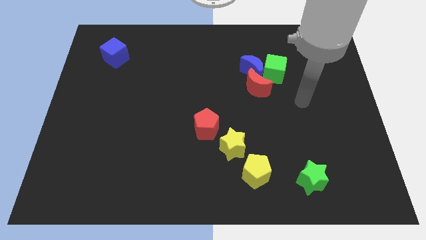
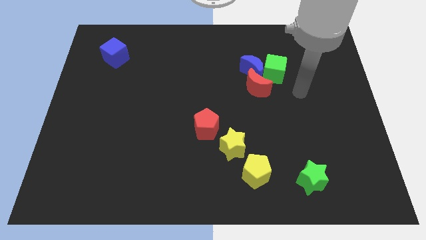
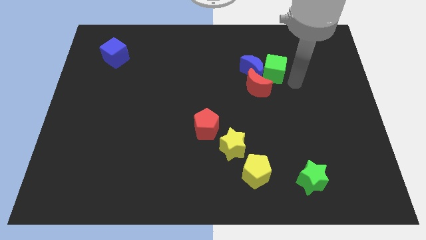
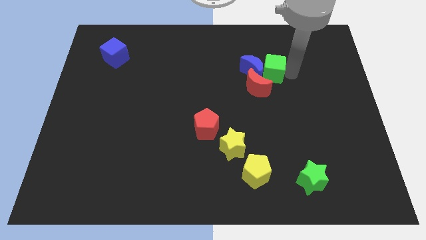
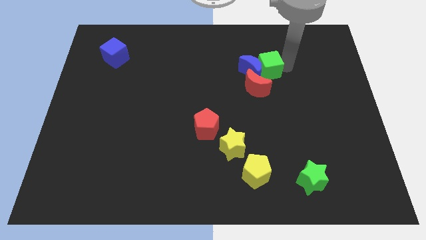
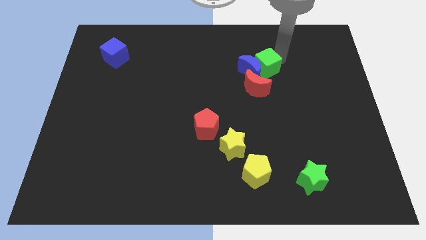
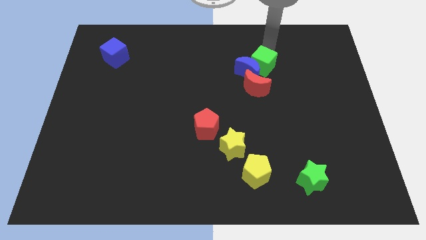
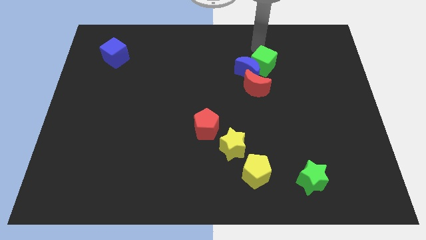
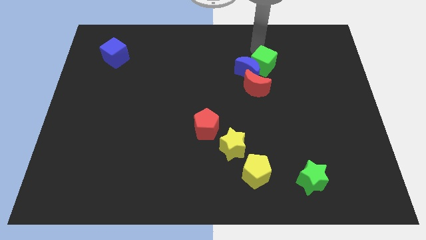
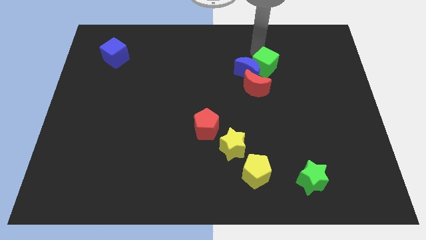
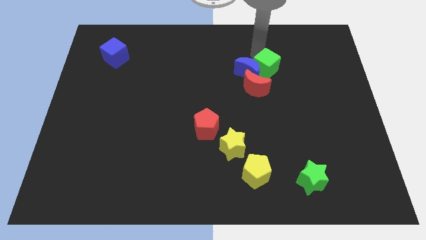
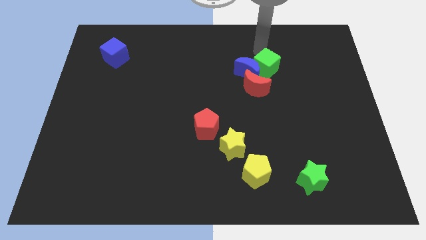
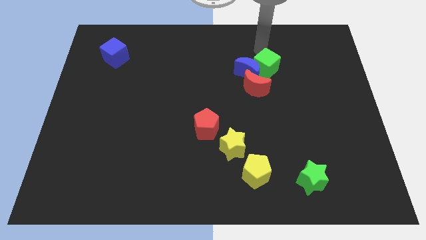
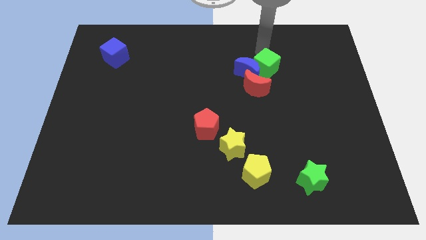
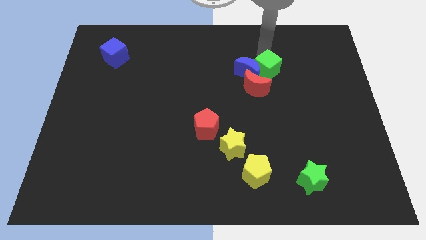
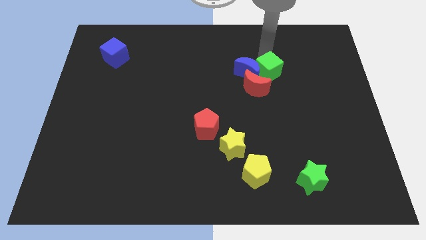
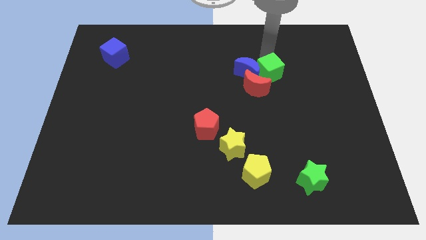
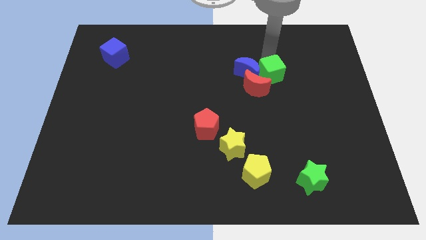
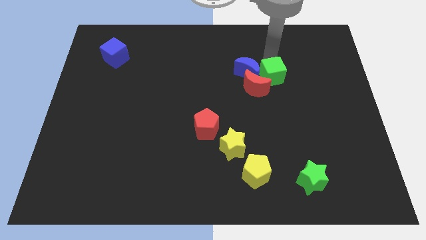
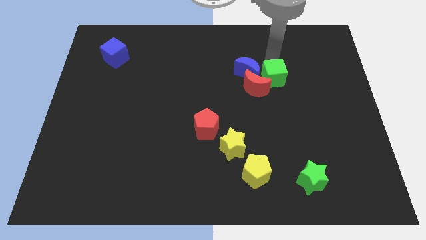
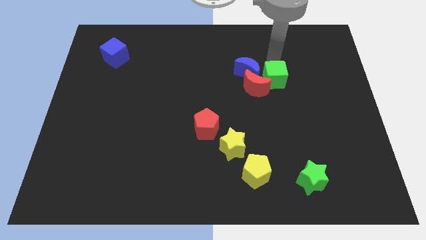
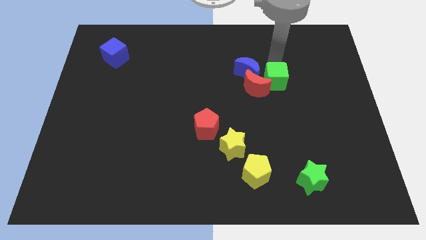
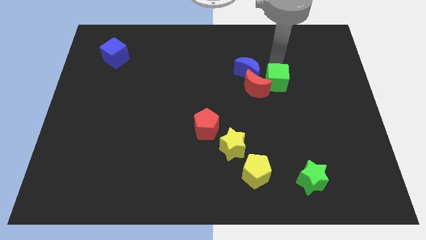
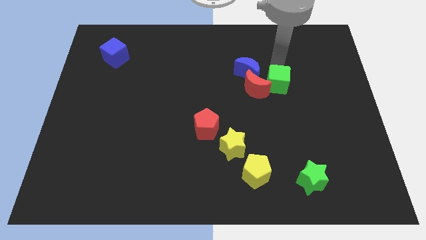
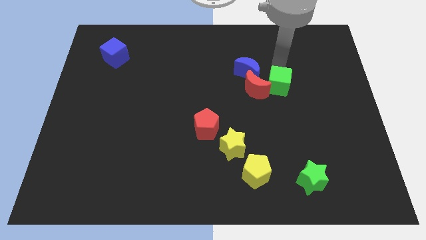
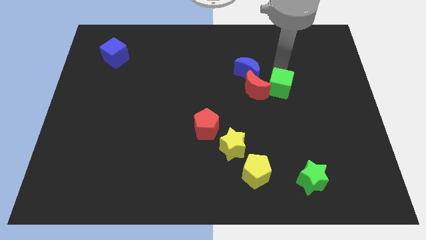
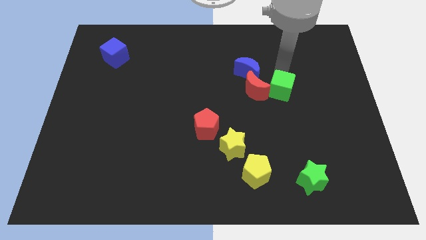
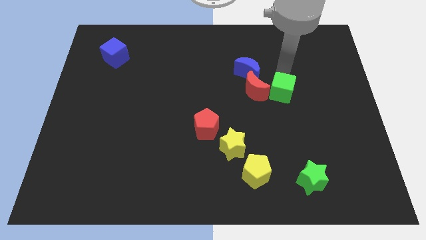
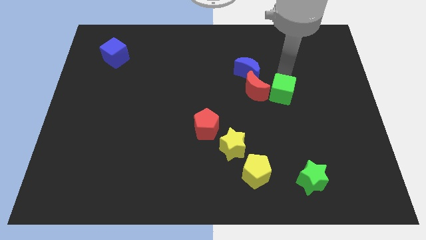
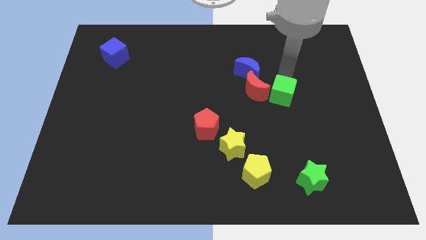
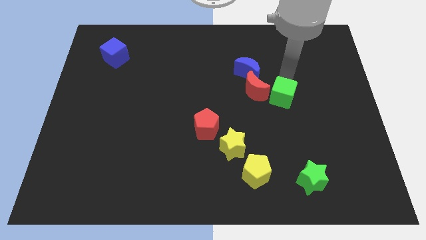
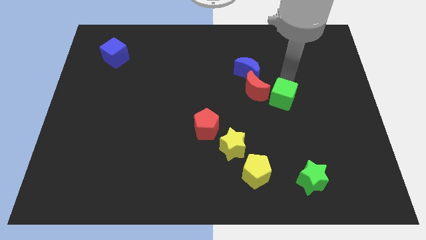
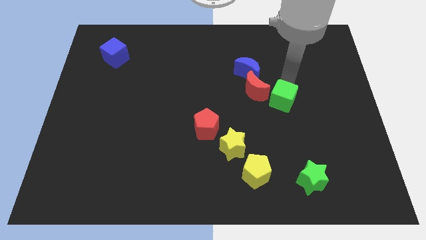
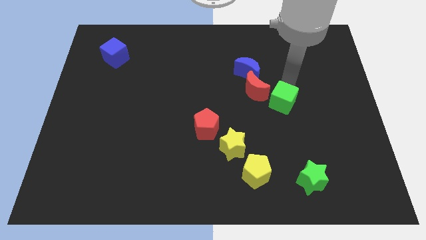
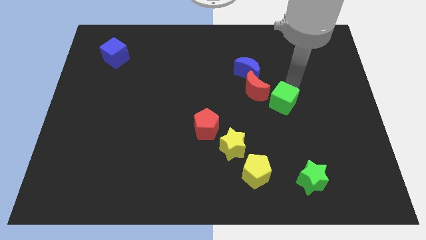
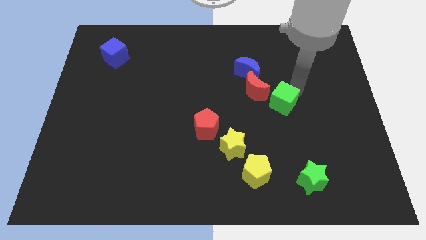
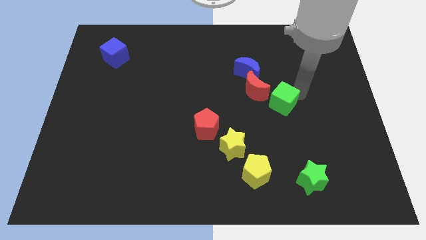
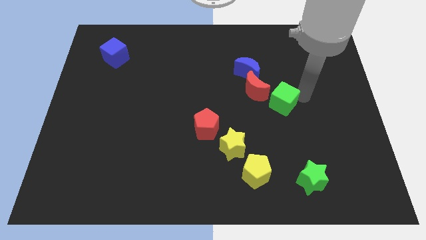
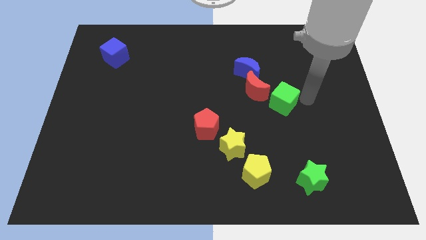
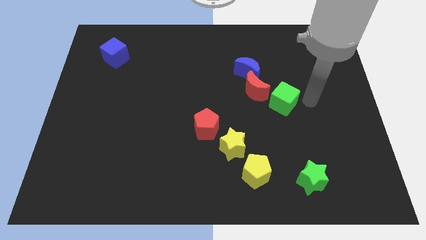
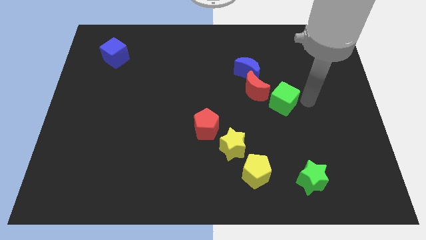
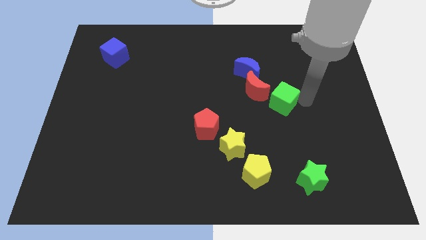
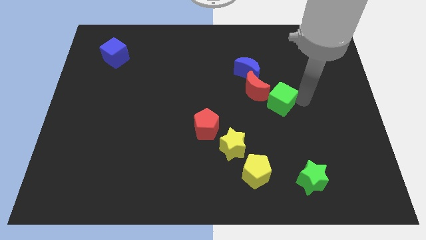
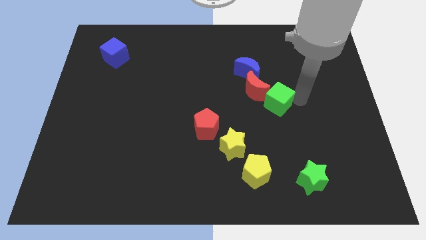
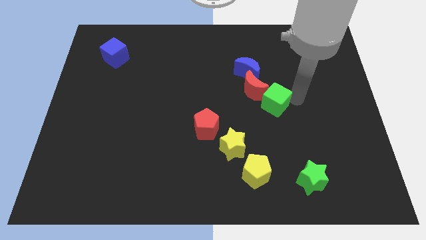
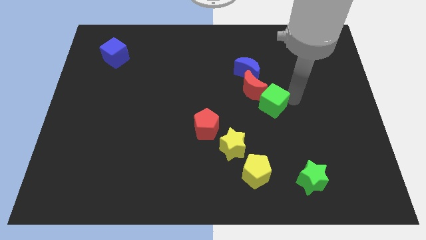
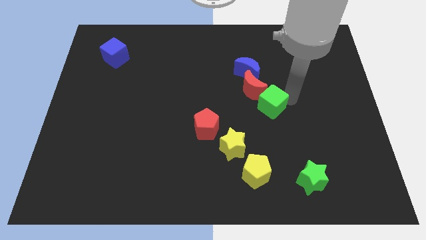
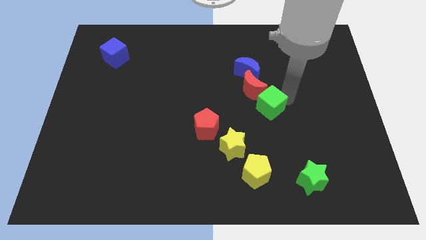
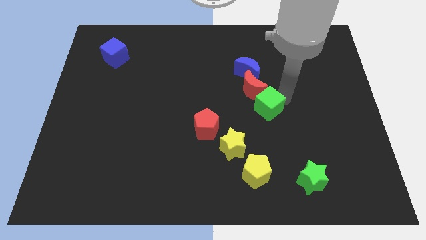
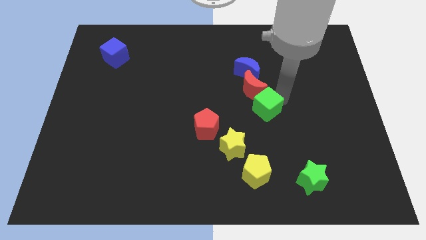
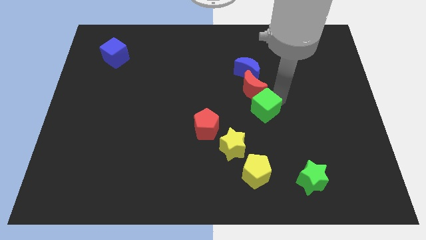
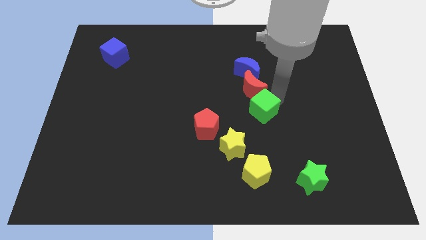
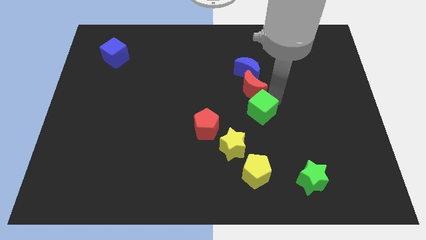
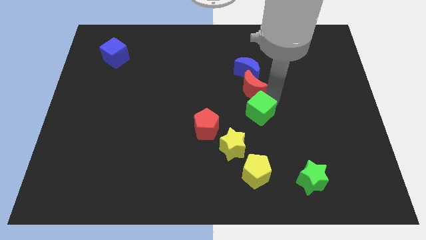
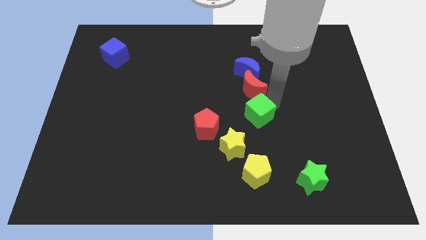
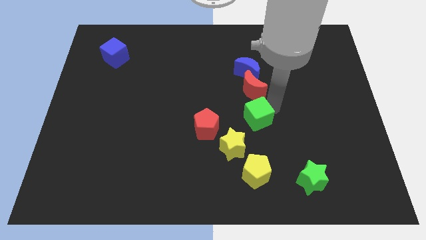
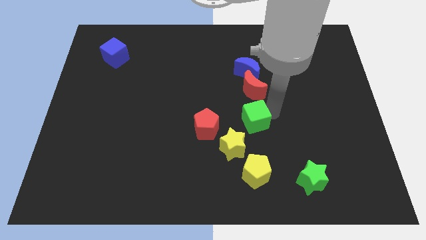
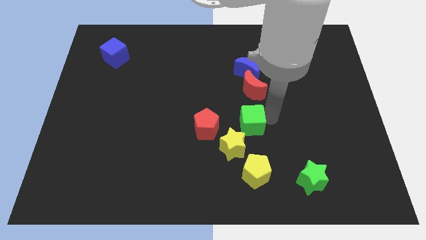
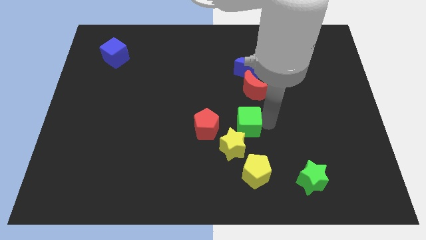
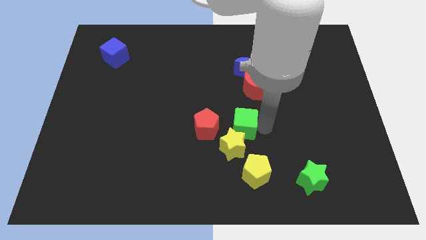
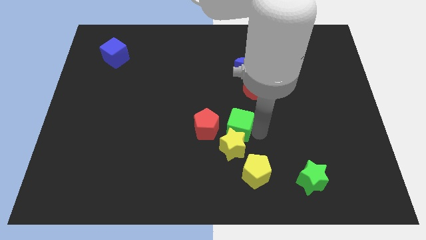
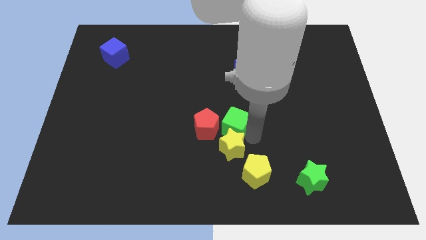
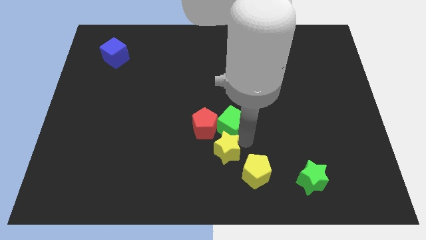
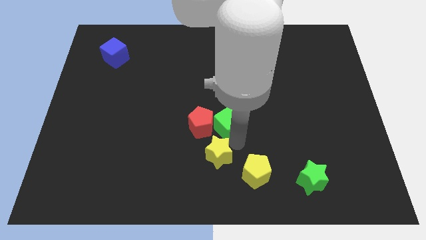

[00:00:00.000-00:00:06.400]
slide the green cube diagonally downwards and left

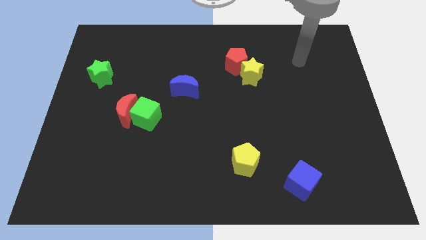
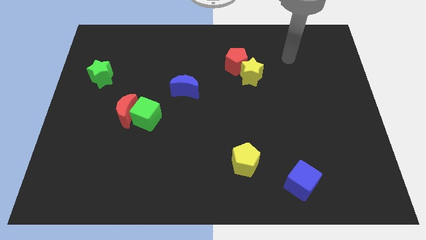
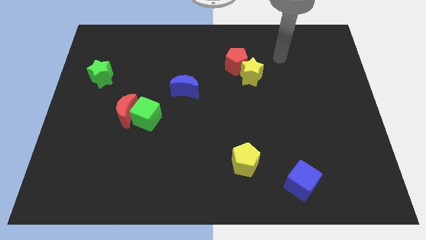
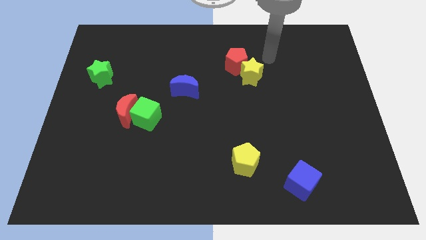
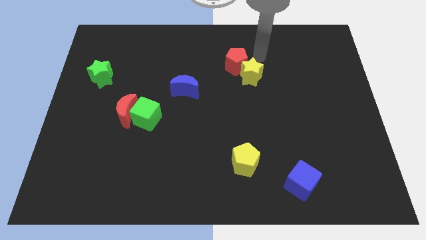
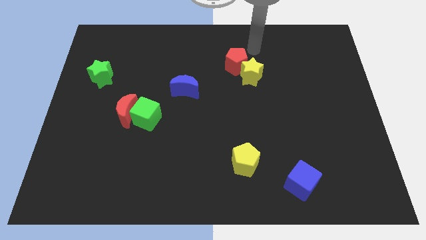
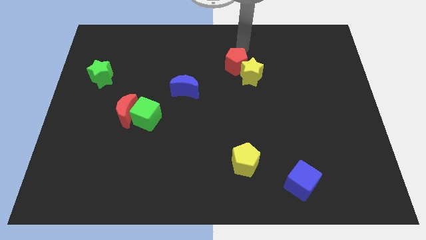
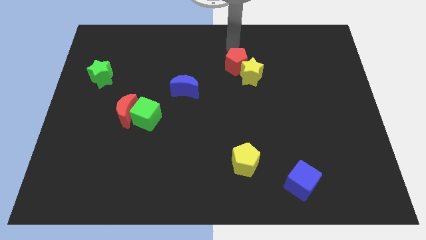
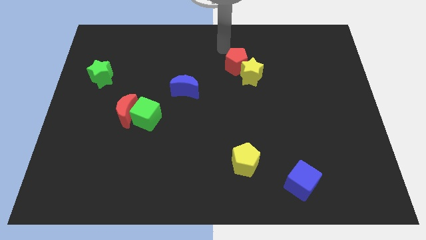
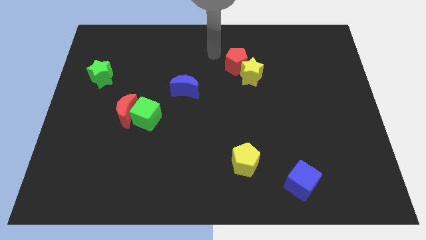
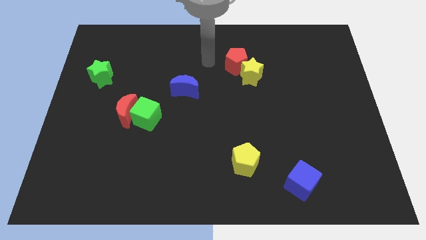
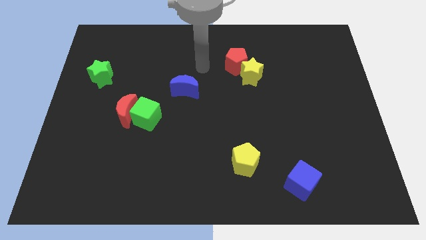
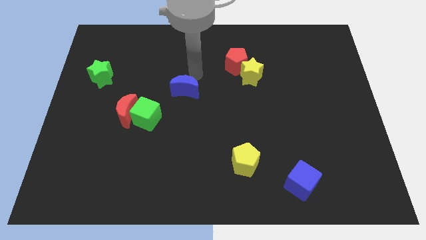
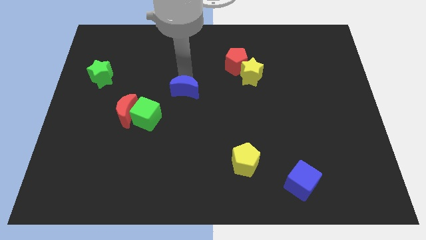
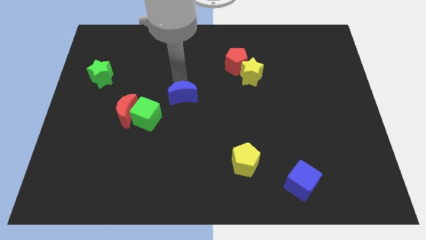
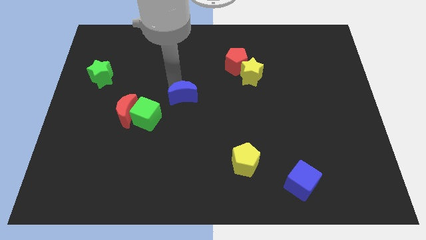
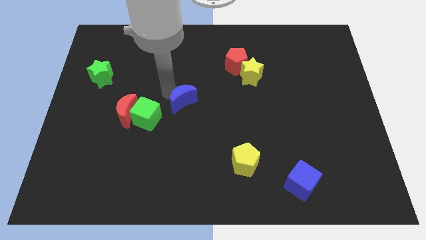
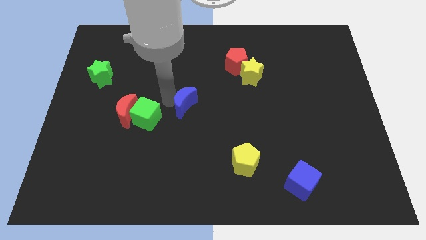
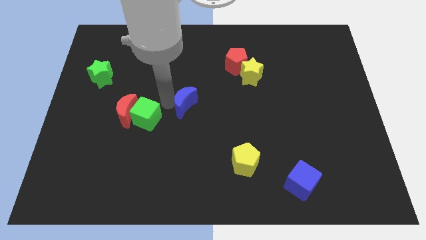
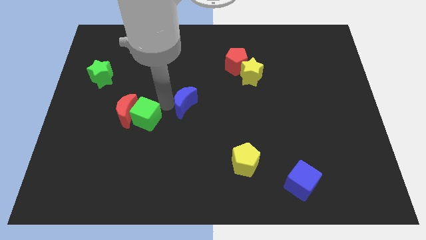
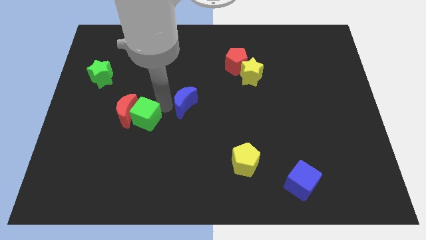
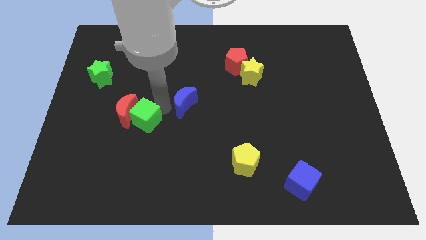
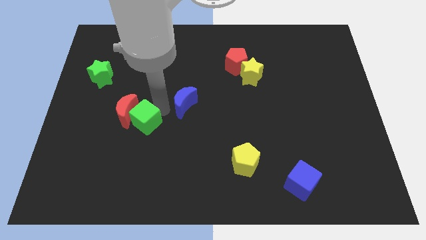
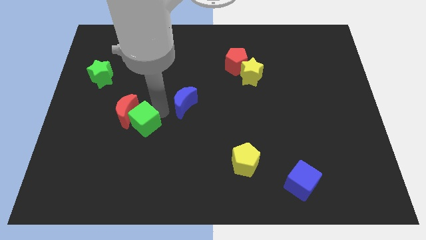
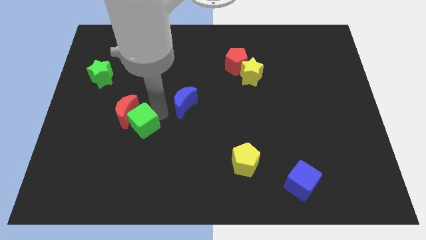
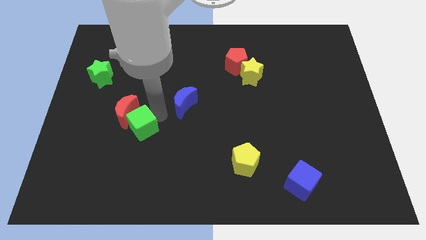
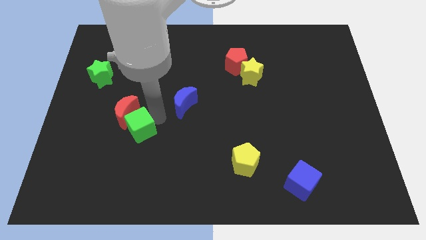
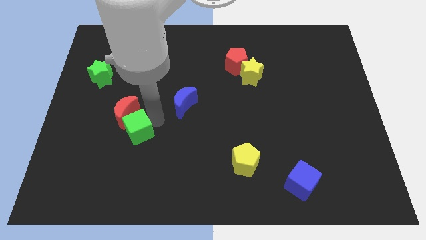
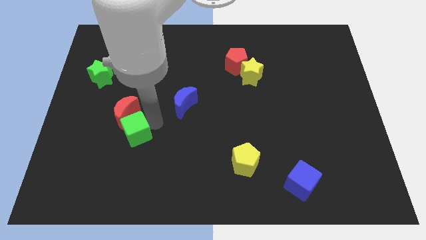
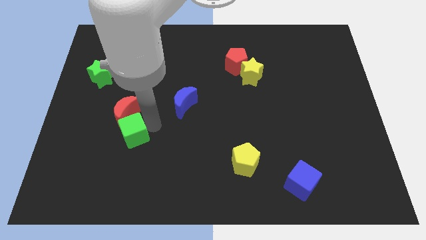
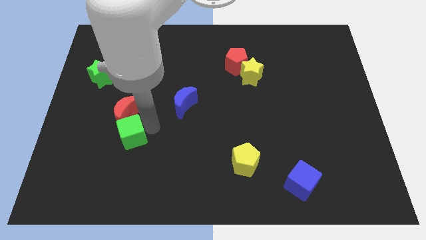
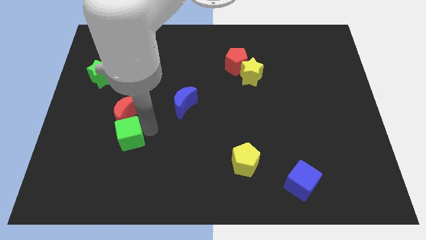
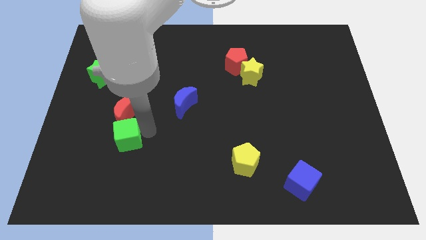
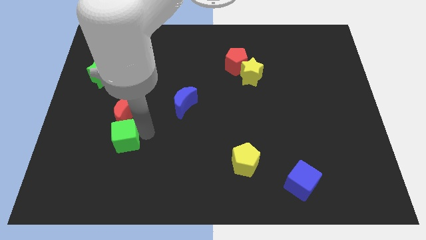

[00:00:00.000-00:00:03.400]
move the green cube a little bit diagonally downwards and left
